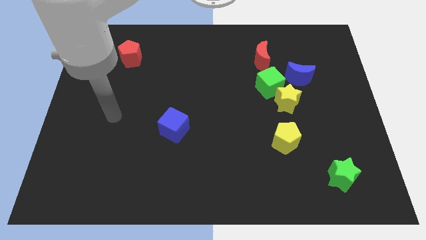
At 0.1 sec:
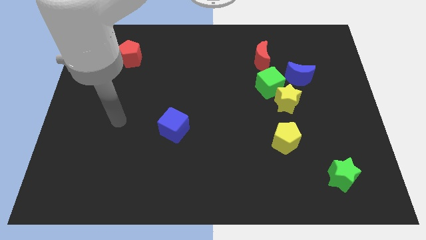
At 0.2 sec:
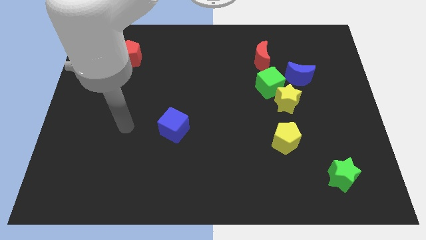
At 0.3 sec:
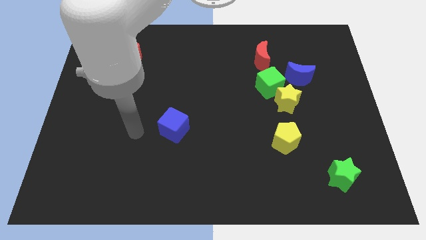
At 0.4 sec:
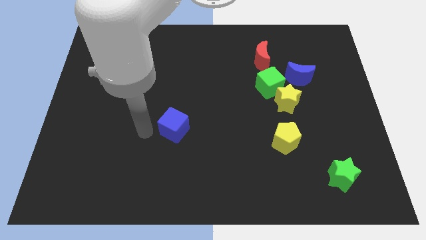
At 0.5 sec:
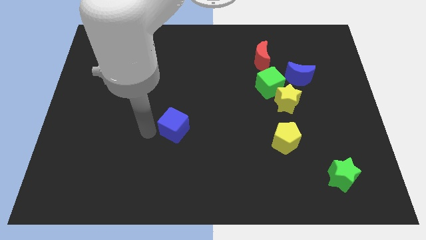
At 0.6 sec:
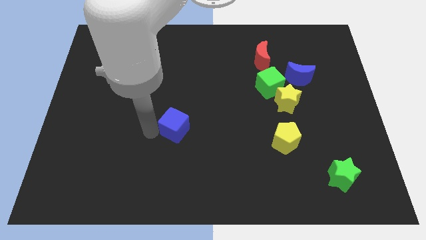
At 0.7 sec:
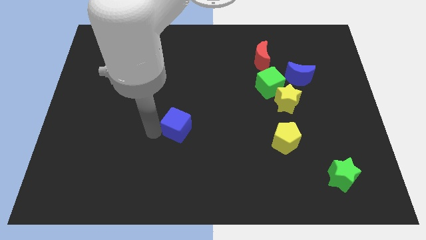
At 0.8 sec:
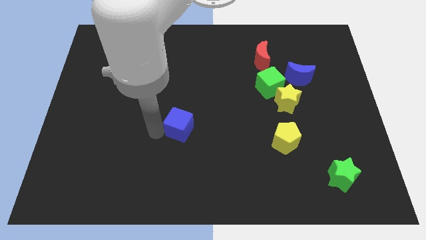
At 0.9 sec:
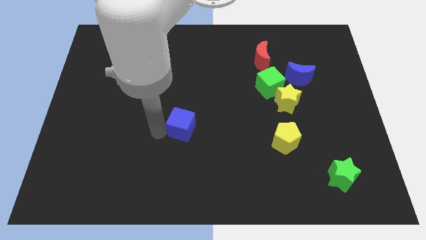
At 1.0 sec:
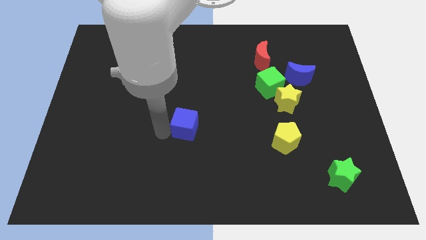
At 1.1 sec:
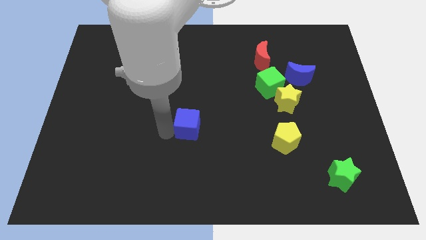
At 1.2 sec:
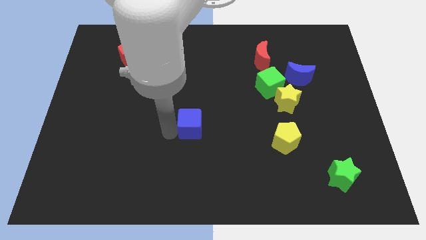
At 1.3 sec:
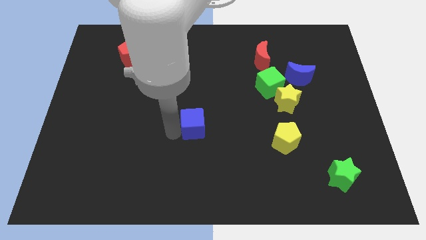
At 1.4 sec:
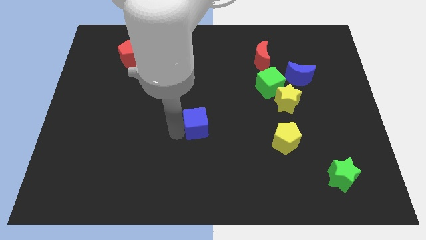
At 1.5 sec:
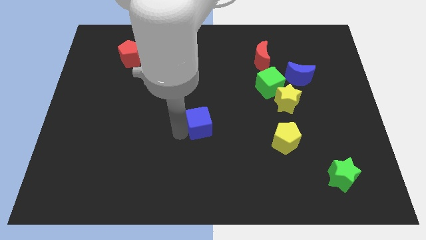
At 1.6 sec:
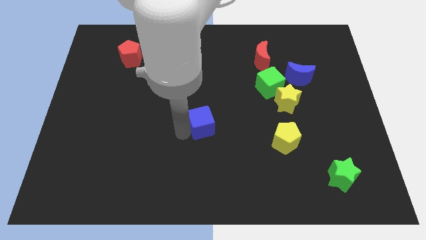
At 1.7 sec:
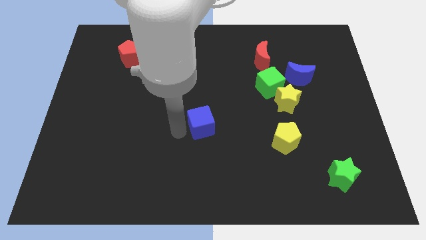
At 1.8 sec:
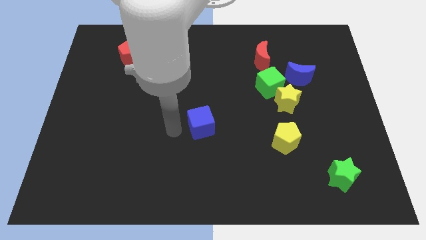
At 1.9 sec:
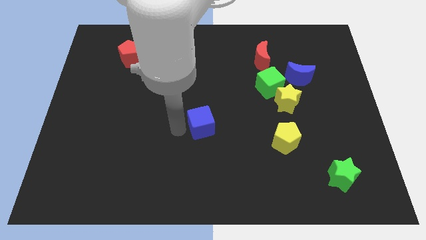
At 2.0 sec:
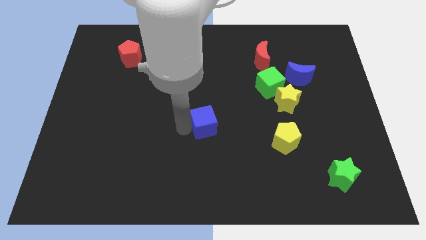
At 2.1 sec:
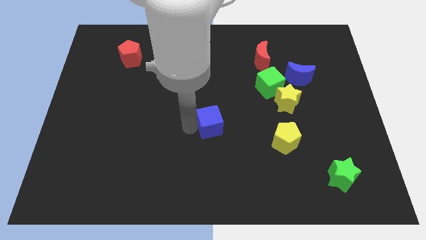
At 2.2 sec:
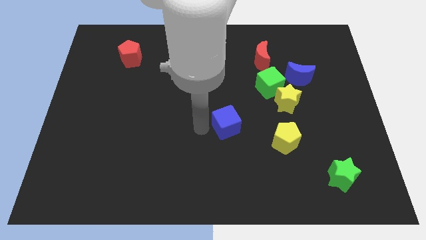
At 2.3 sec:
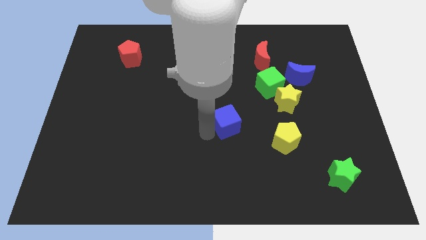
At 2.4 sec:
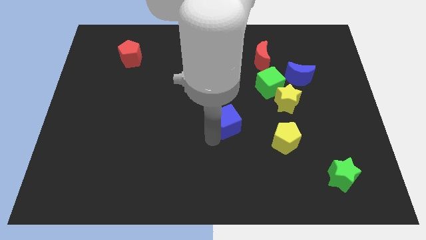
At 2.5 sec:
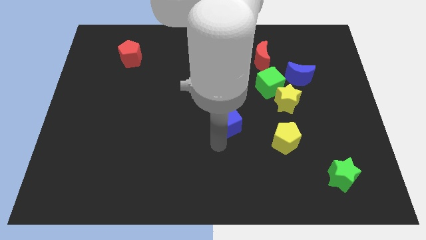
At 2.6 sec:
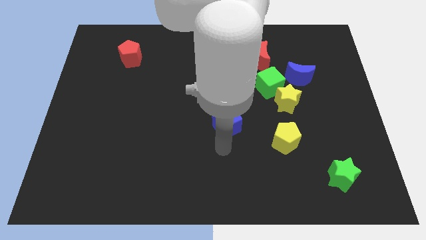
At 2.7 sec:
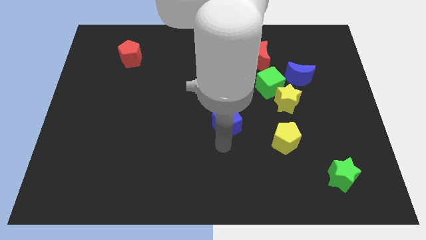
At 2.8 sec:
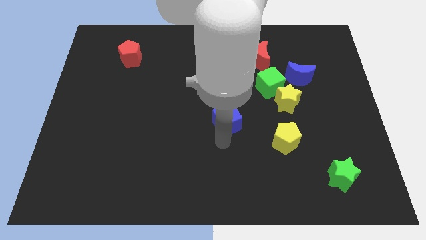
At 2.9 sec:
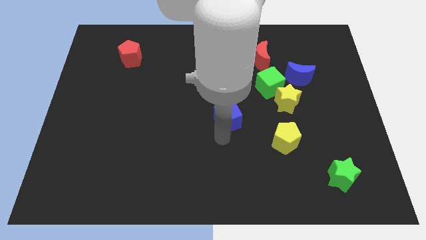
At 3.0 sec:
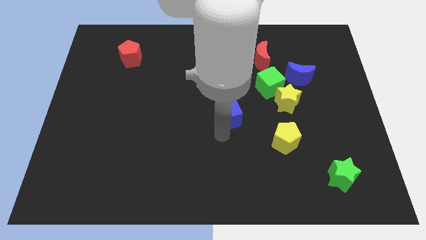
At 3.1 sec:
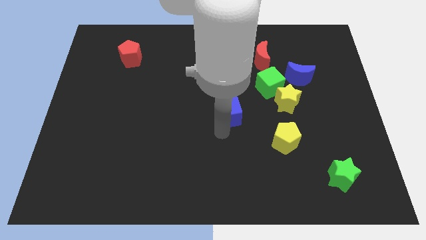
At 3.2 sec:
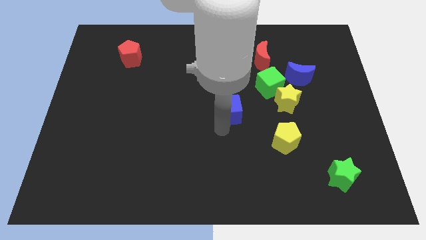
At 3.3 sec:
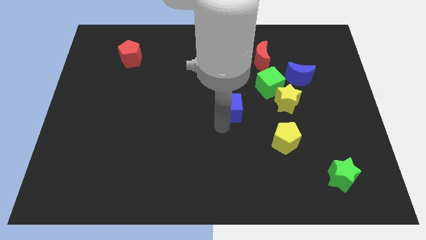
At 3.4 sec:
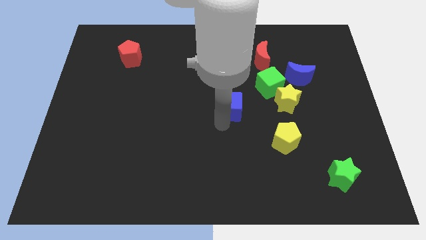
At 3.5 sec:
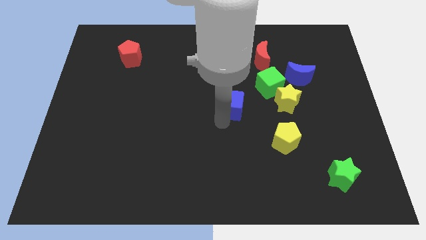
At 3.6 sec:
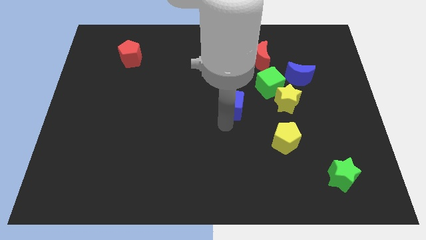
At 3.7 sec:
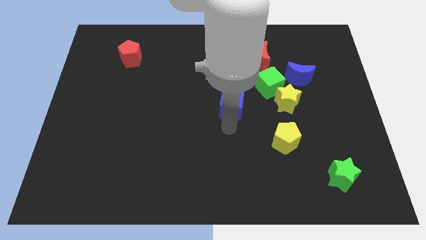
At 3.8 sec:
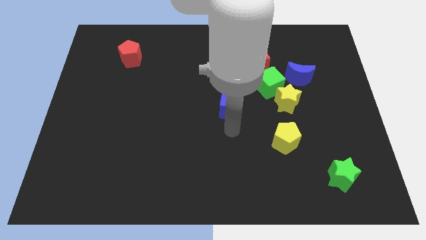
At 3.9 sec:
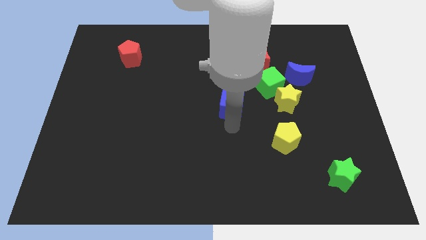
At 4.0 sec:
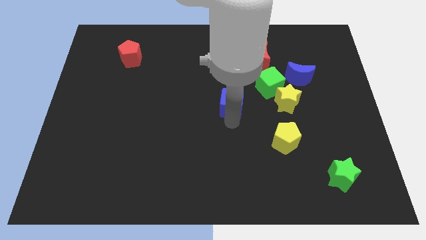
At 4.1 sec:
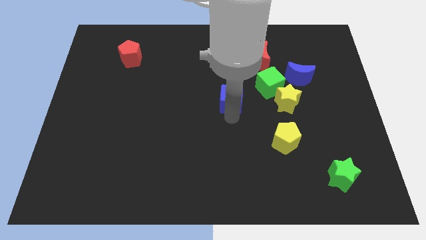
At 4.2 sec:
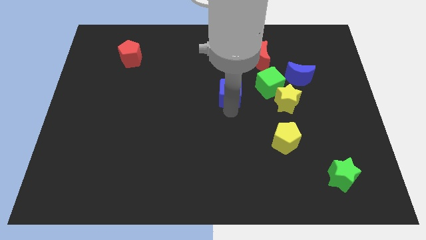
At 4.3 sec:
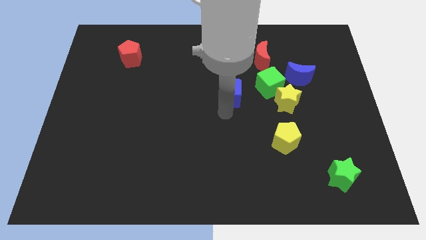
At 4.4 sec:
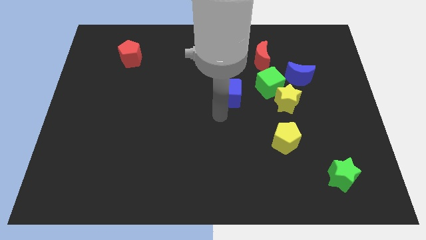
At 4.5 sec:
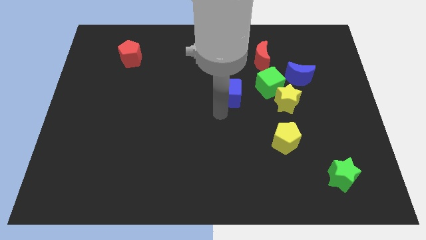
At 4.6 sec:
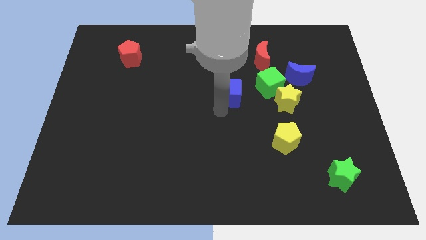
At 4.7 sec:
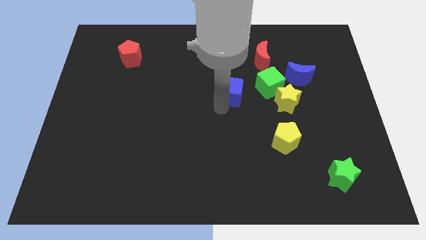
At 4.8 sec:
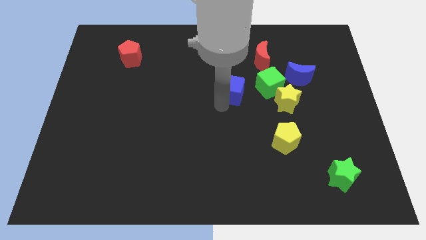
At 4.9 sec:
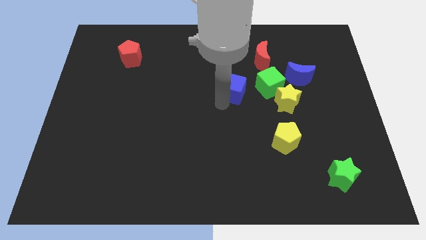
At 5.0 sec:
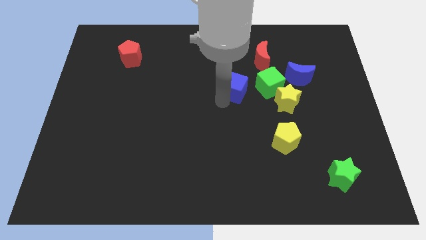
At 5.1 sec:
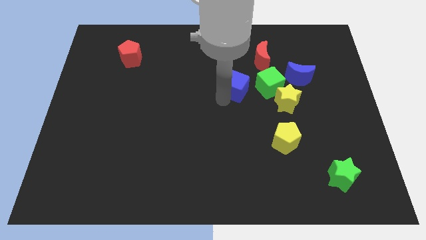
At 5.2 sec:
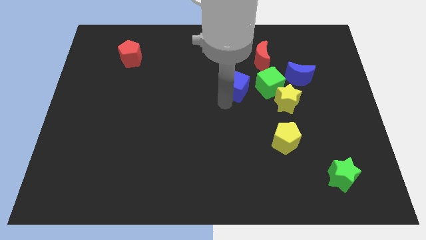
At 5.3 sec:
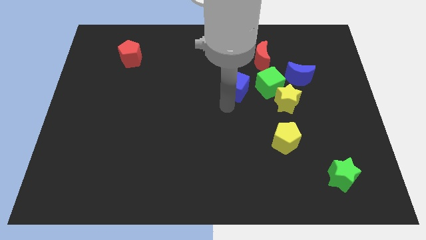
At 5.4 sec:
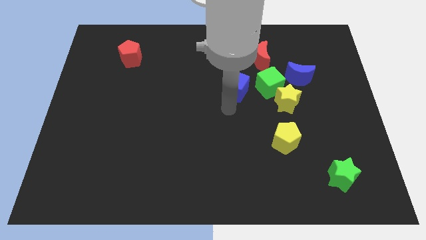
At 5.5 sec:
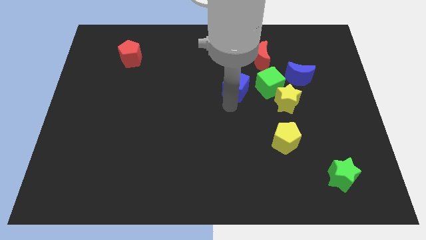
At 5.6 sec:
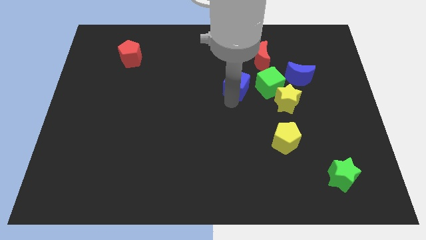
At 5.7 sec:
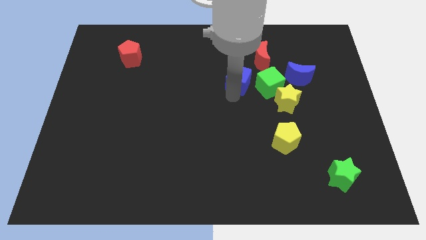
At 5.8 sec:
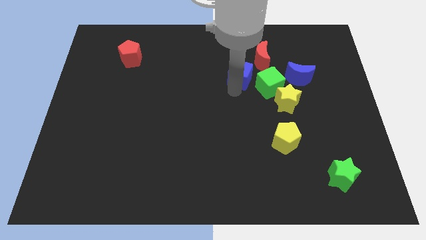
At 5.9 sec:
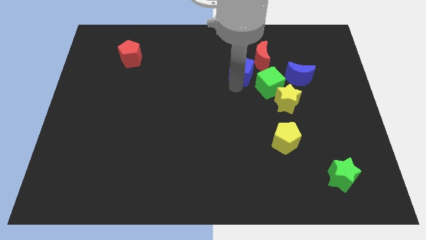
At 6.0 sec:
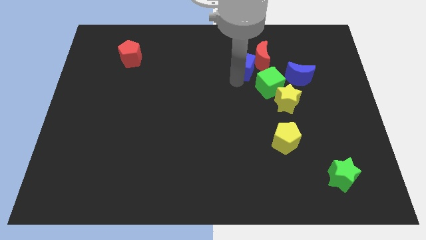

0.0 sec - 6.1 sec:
move the blue cube to the red moon

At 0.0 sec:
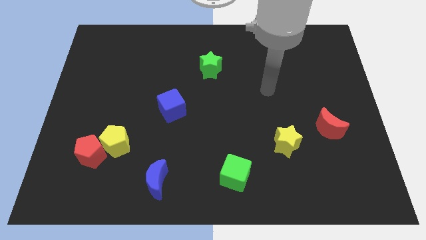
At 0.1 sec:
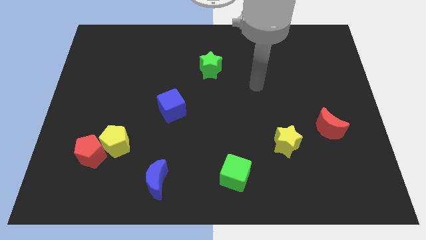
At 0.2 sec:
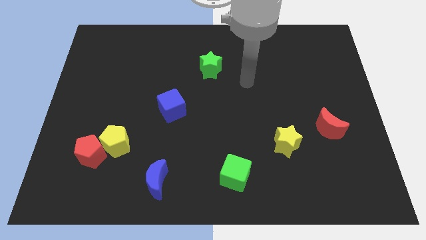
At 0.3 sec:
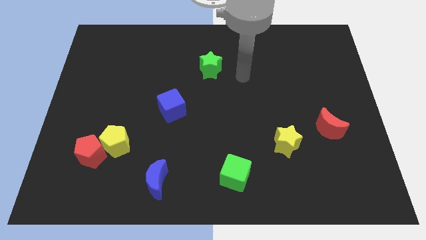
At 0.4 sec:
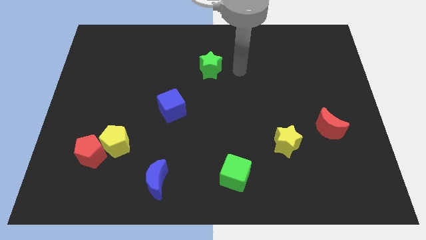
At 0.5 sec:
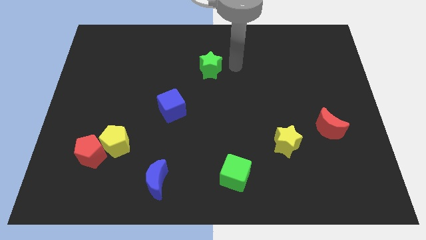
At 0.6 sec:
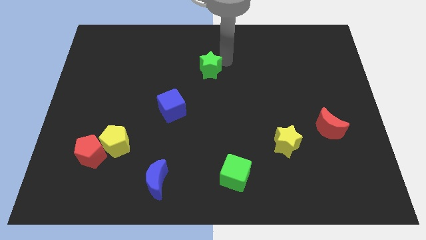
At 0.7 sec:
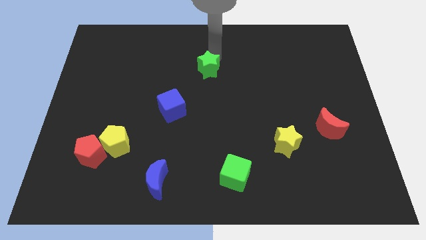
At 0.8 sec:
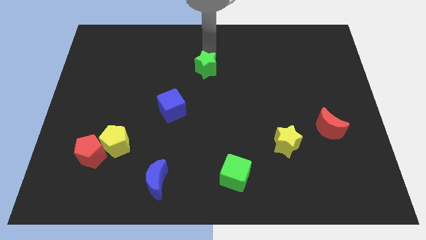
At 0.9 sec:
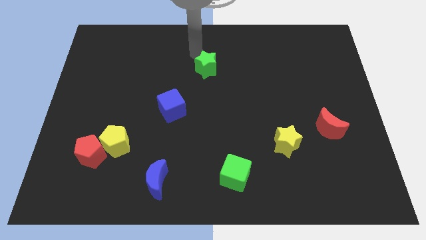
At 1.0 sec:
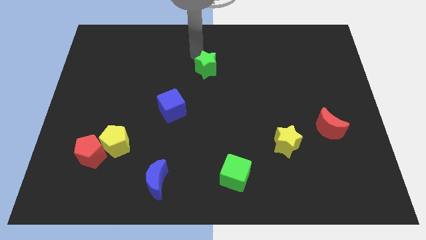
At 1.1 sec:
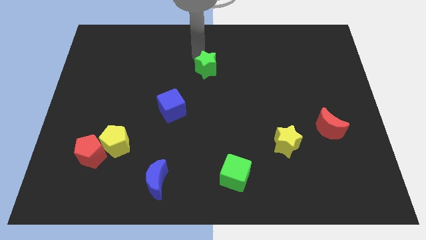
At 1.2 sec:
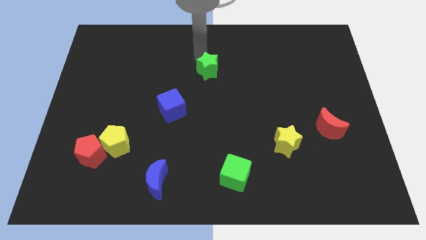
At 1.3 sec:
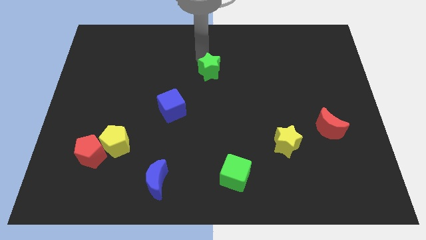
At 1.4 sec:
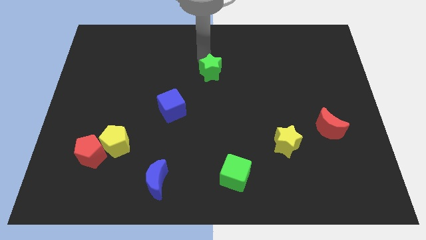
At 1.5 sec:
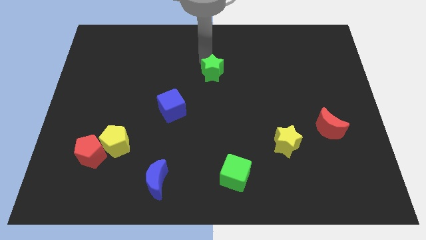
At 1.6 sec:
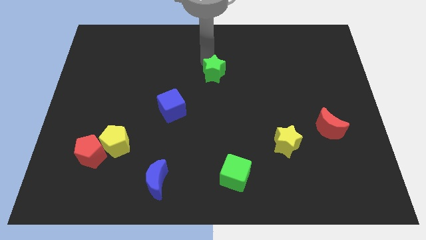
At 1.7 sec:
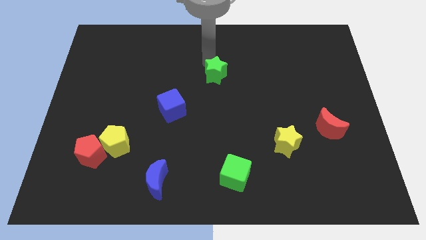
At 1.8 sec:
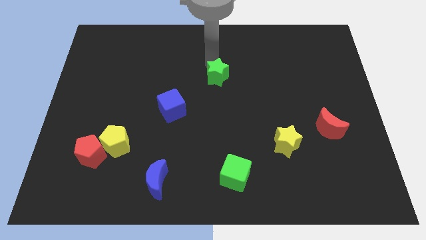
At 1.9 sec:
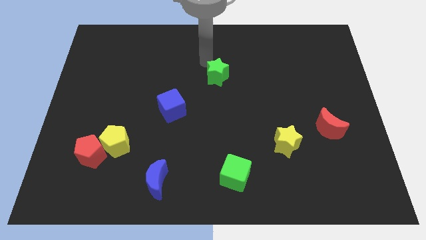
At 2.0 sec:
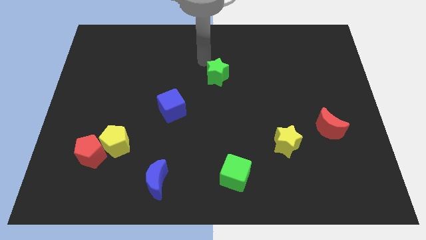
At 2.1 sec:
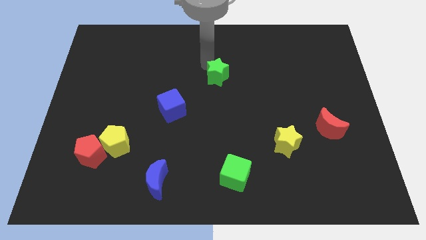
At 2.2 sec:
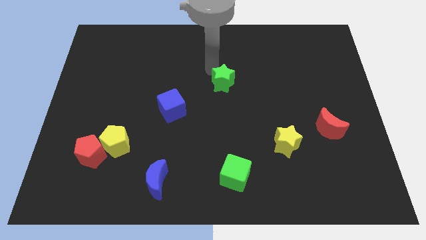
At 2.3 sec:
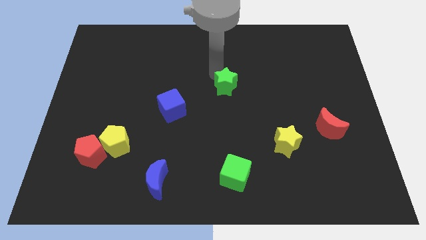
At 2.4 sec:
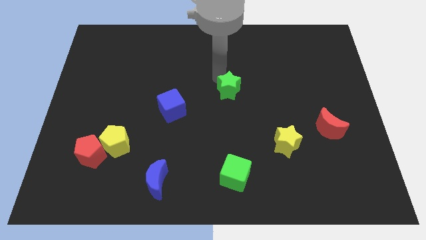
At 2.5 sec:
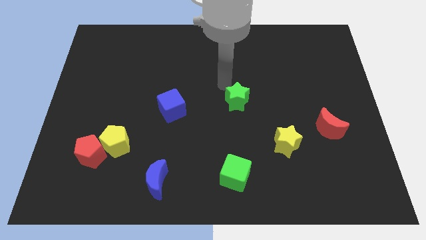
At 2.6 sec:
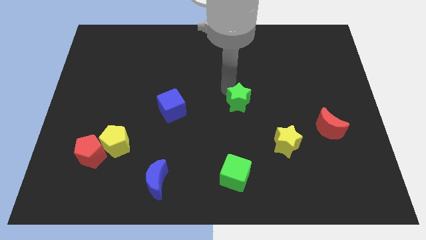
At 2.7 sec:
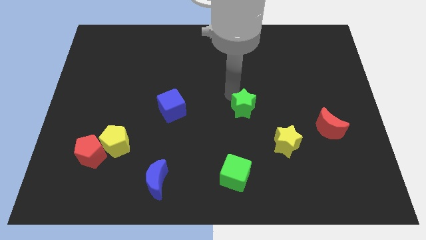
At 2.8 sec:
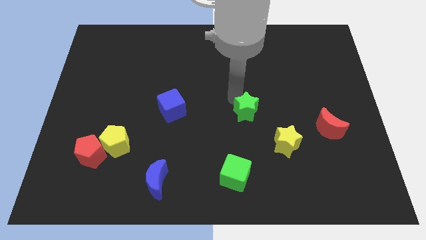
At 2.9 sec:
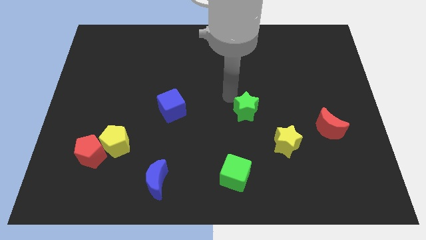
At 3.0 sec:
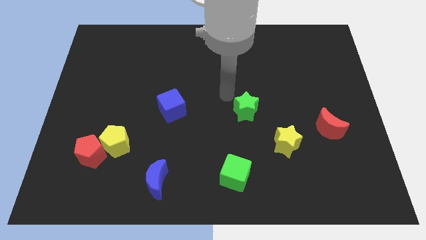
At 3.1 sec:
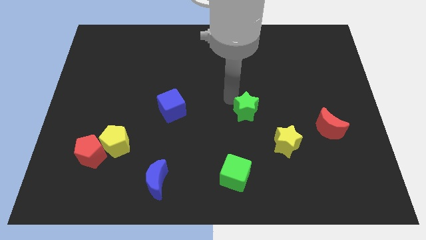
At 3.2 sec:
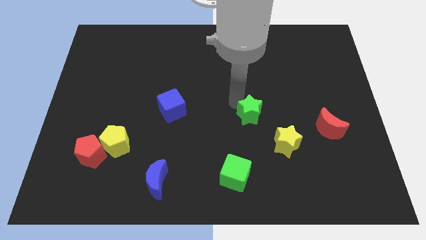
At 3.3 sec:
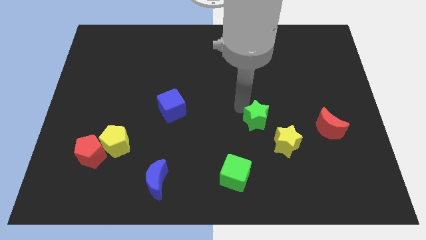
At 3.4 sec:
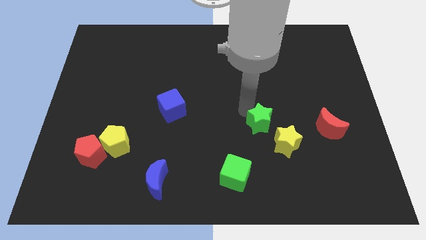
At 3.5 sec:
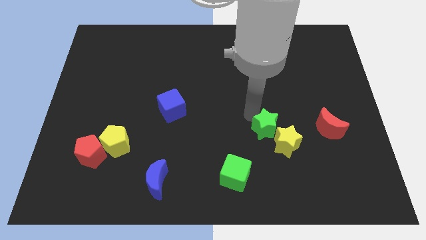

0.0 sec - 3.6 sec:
slide the green star to the yellow star
